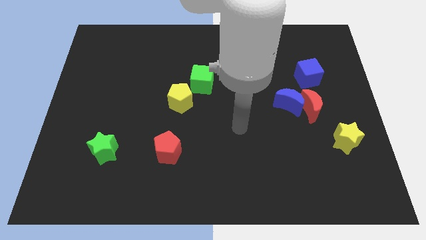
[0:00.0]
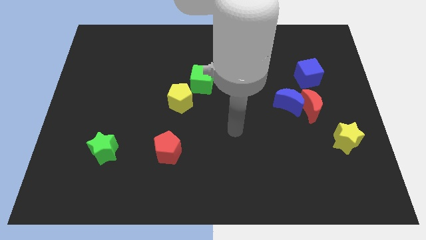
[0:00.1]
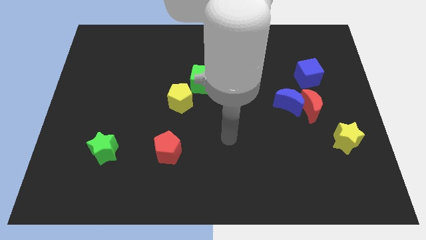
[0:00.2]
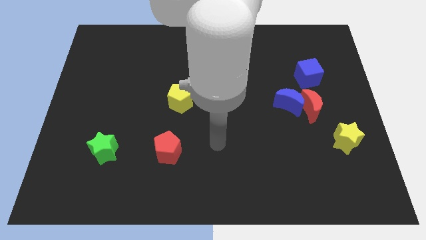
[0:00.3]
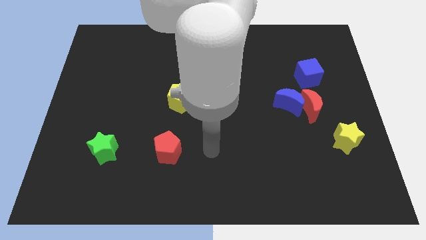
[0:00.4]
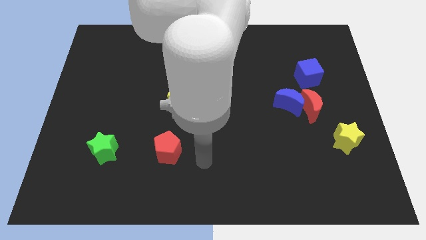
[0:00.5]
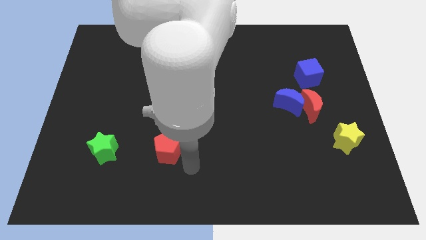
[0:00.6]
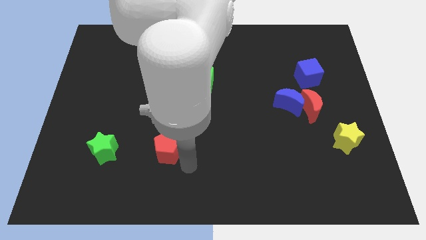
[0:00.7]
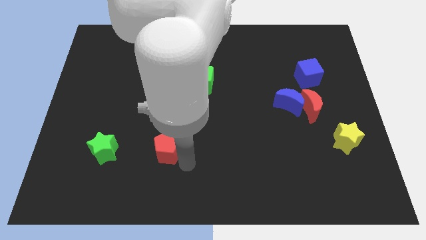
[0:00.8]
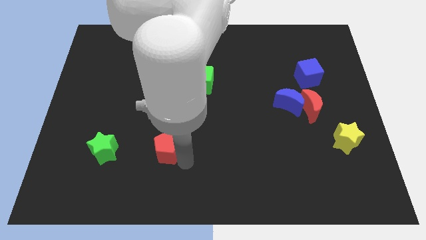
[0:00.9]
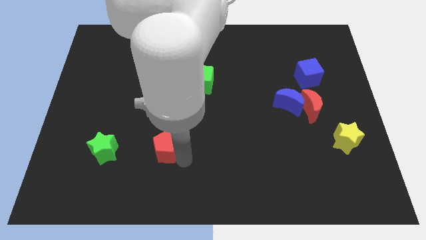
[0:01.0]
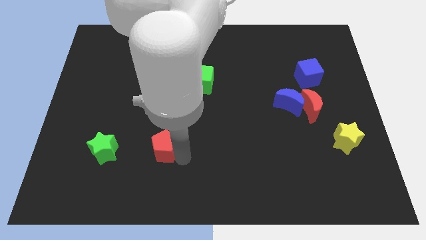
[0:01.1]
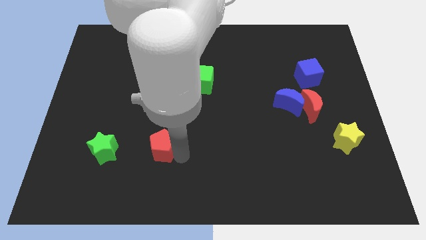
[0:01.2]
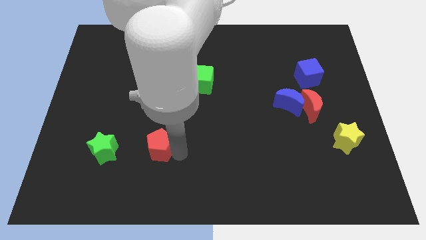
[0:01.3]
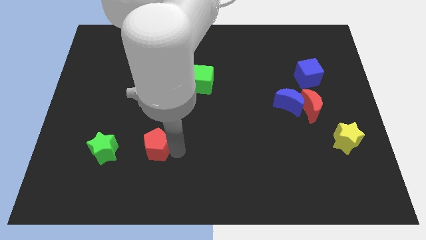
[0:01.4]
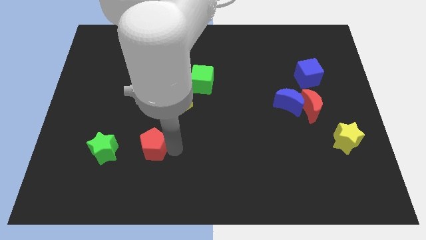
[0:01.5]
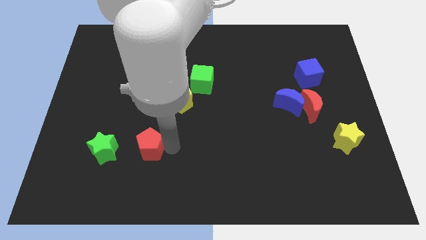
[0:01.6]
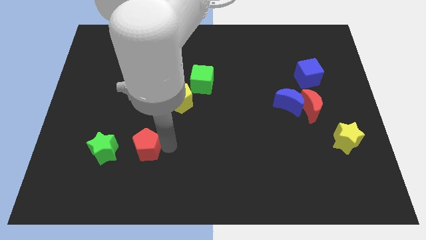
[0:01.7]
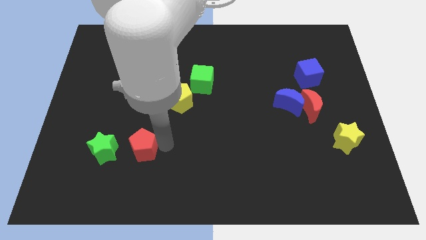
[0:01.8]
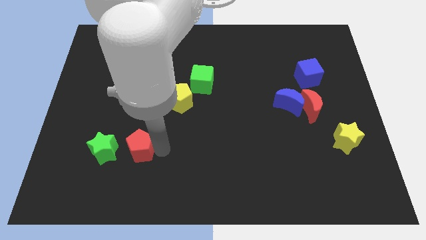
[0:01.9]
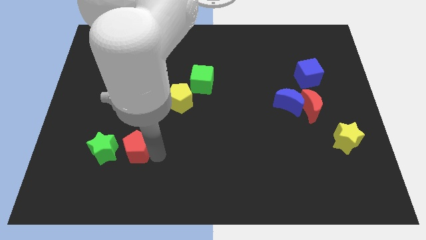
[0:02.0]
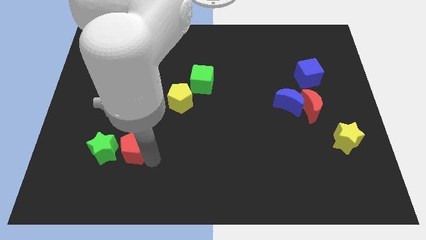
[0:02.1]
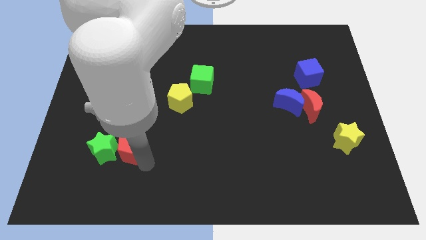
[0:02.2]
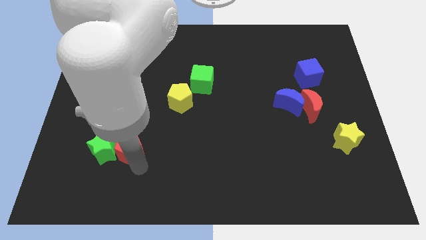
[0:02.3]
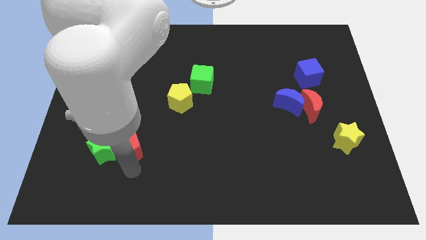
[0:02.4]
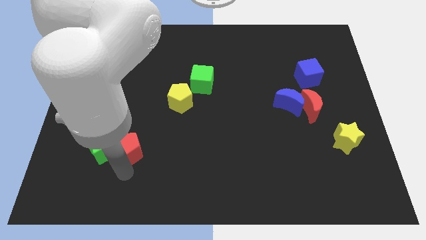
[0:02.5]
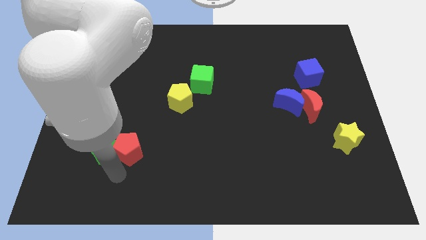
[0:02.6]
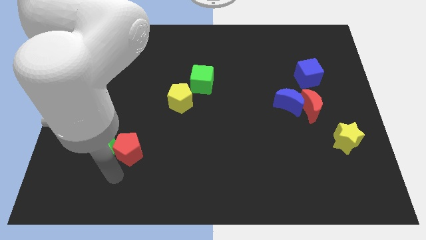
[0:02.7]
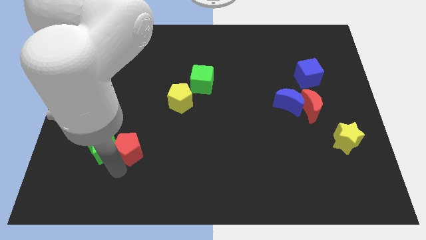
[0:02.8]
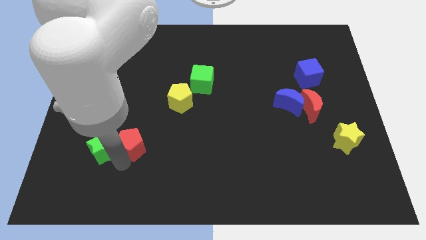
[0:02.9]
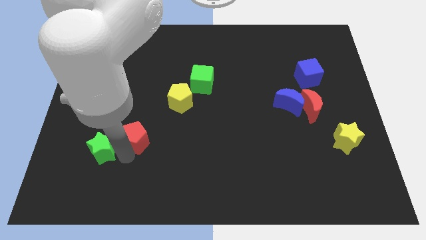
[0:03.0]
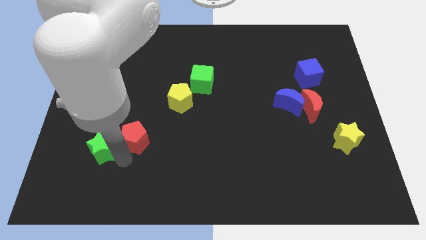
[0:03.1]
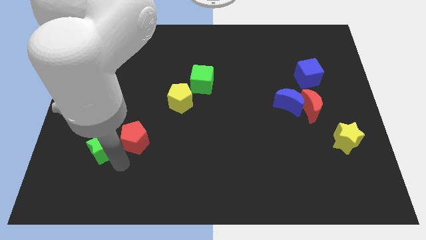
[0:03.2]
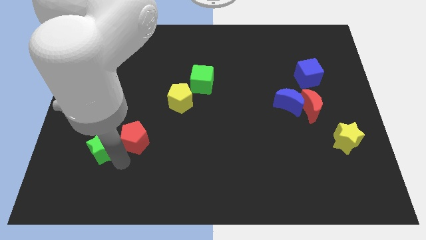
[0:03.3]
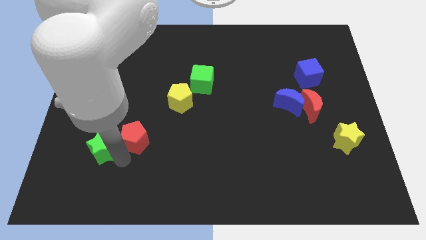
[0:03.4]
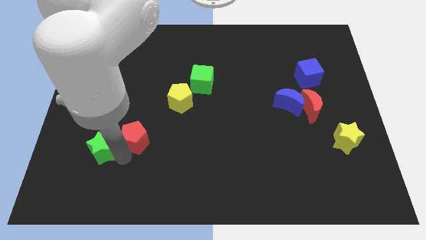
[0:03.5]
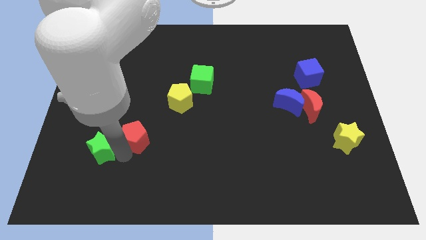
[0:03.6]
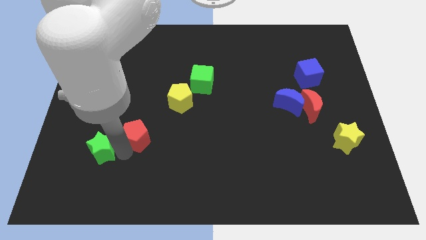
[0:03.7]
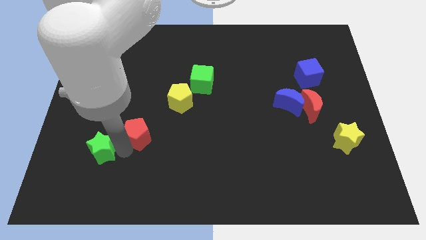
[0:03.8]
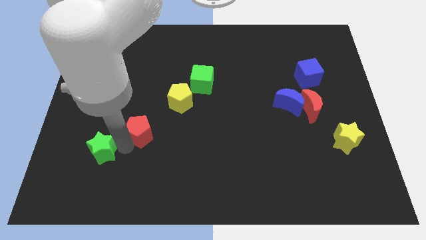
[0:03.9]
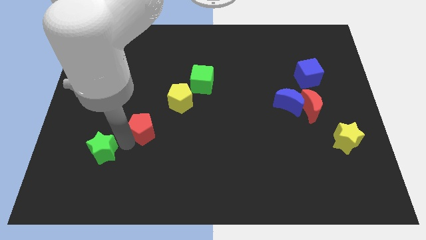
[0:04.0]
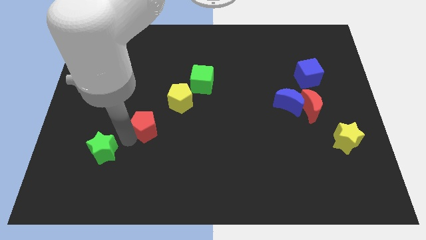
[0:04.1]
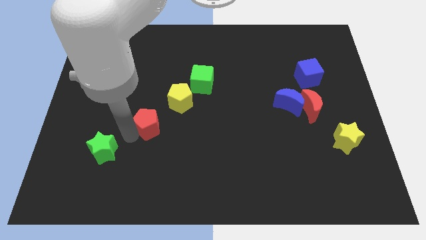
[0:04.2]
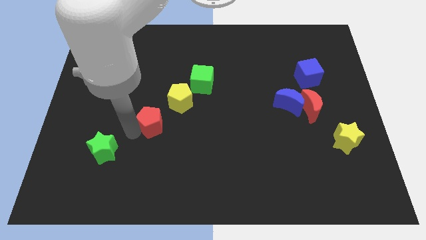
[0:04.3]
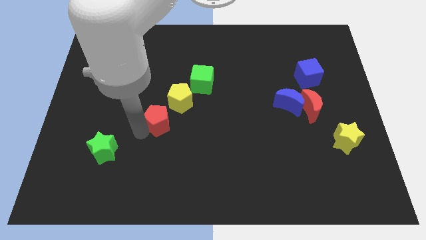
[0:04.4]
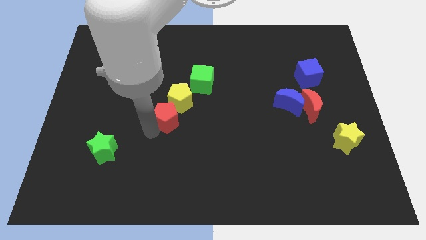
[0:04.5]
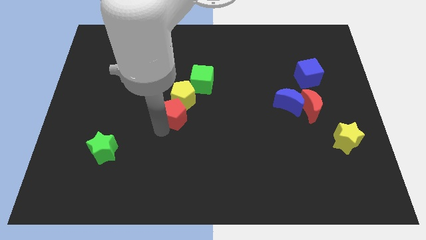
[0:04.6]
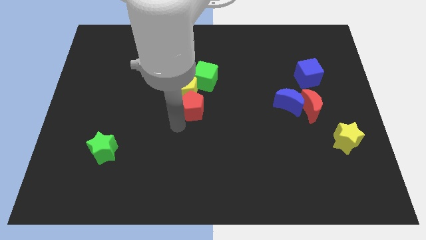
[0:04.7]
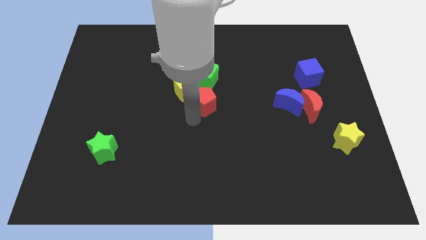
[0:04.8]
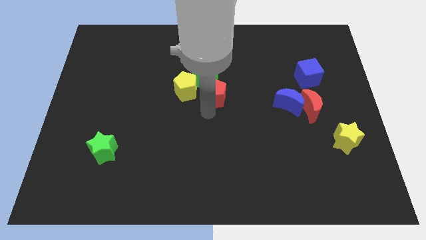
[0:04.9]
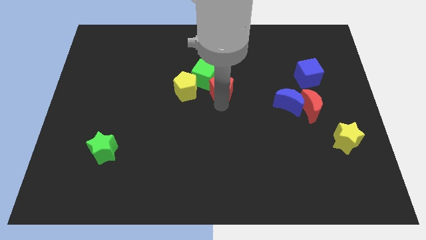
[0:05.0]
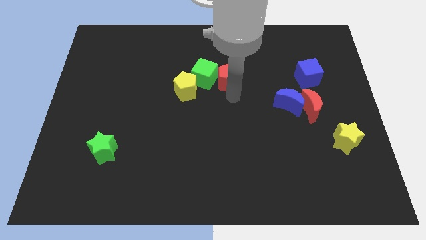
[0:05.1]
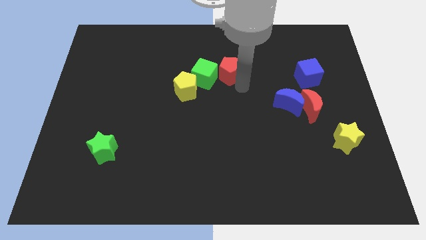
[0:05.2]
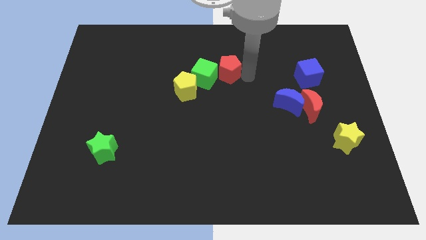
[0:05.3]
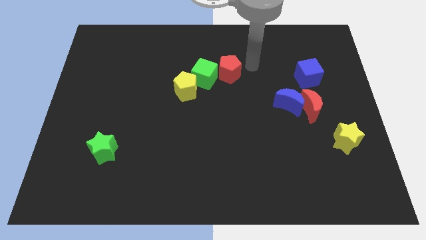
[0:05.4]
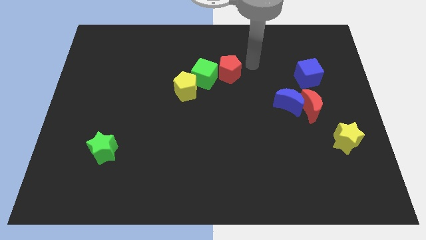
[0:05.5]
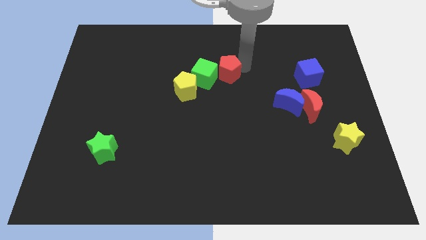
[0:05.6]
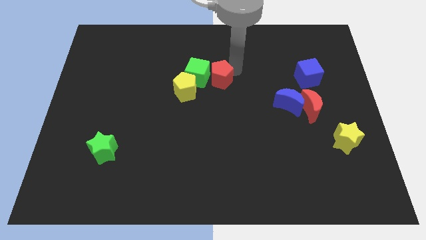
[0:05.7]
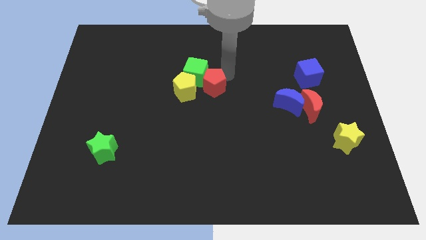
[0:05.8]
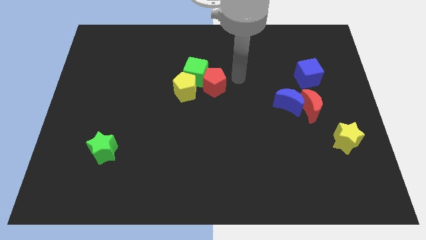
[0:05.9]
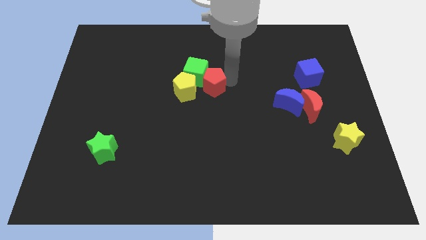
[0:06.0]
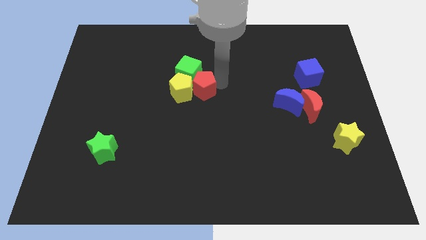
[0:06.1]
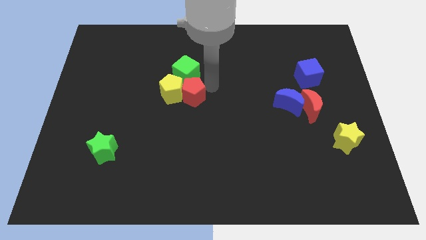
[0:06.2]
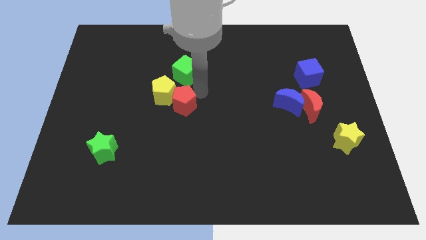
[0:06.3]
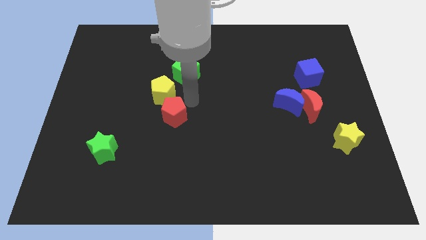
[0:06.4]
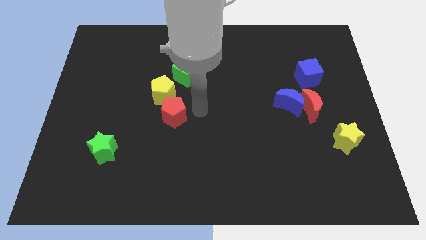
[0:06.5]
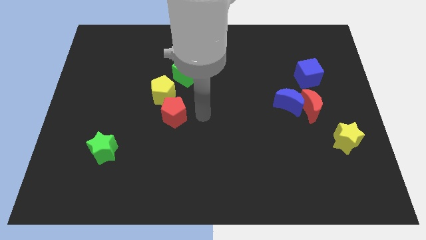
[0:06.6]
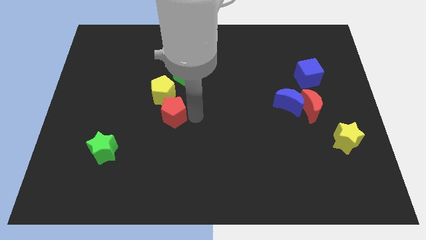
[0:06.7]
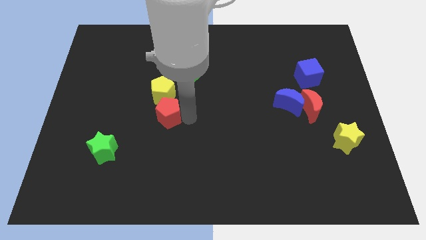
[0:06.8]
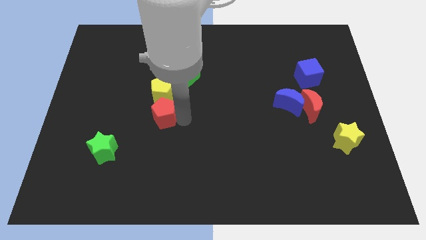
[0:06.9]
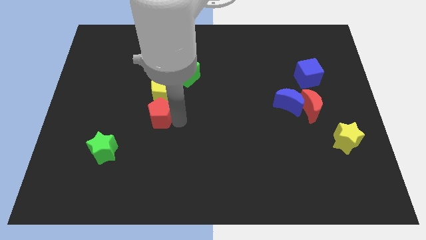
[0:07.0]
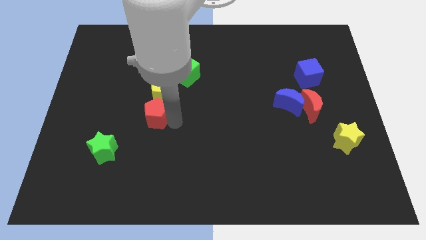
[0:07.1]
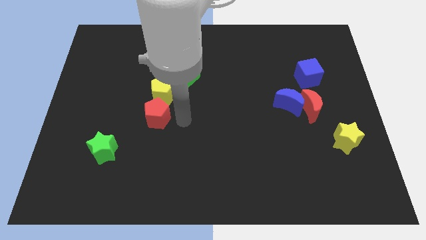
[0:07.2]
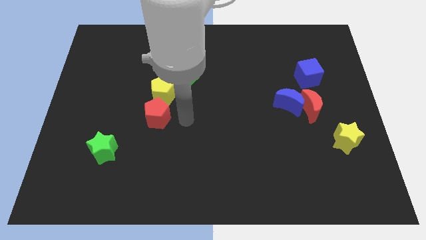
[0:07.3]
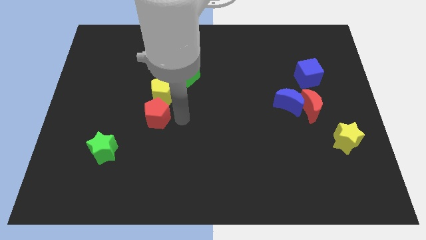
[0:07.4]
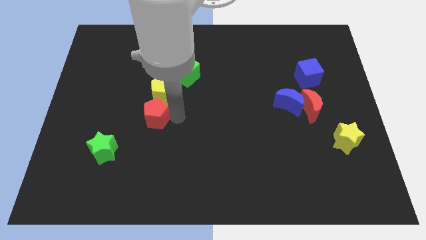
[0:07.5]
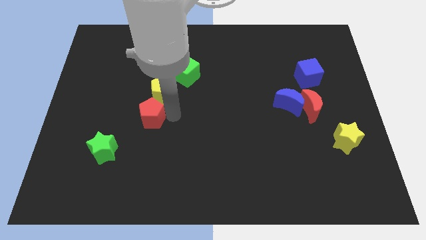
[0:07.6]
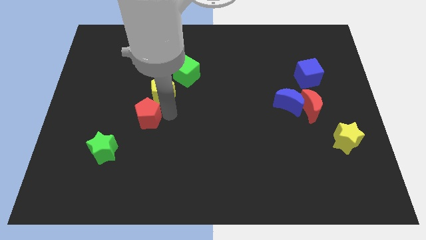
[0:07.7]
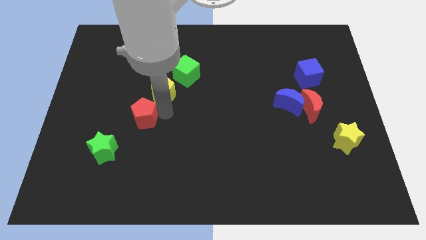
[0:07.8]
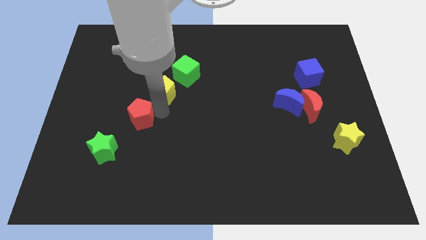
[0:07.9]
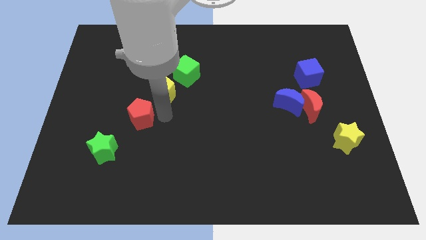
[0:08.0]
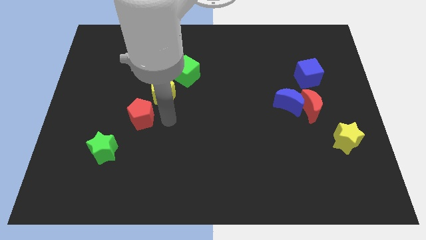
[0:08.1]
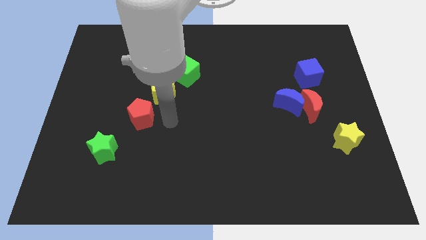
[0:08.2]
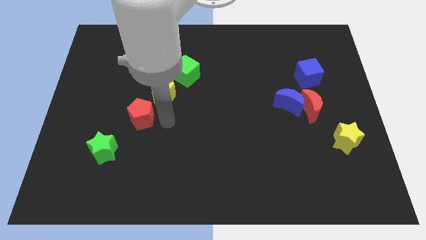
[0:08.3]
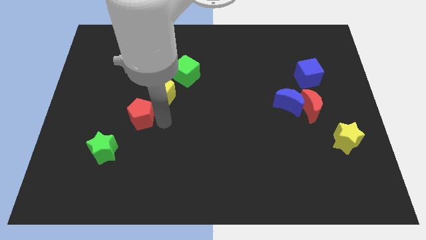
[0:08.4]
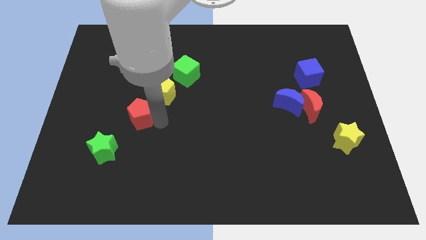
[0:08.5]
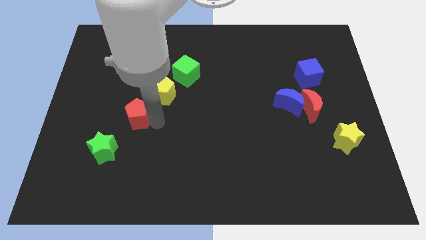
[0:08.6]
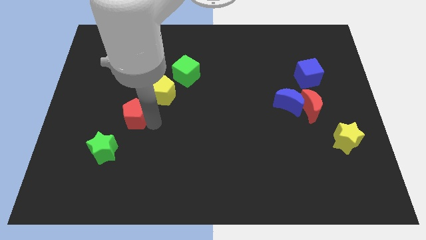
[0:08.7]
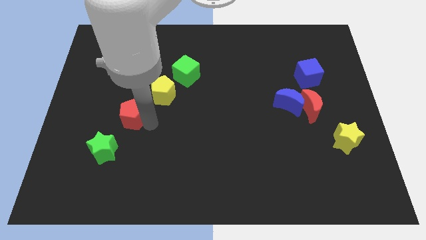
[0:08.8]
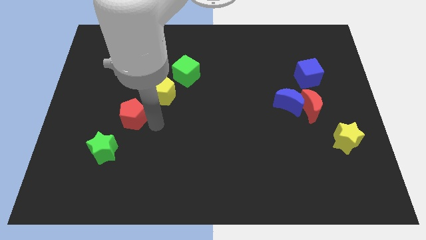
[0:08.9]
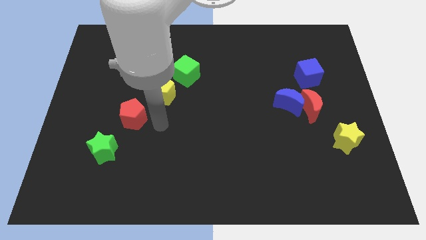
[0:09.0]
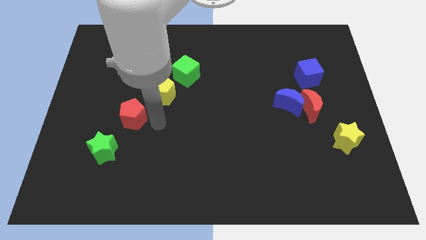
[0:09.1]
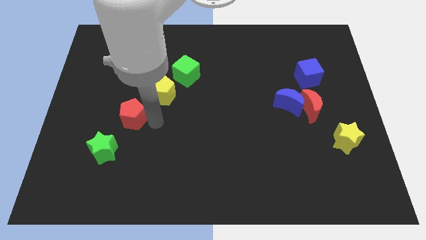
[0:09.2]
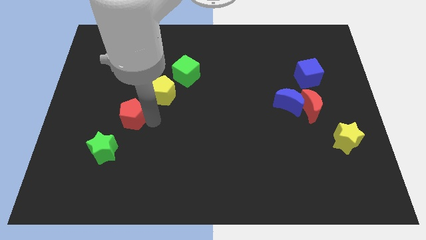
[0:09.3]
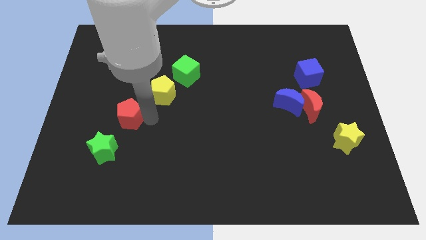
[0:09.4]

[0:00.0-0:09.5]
push the red pentagon above the green star
